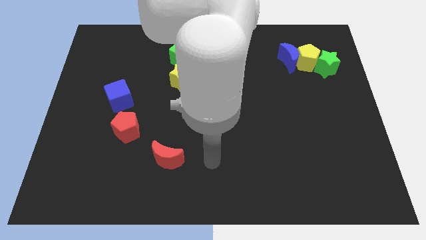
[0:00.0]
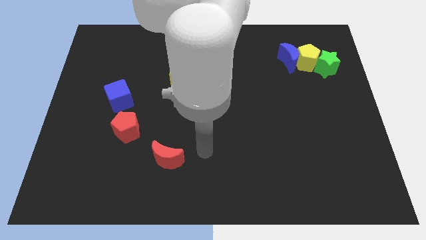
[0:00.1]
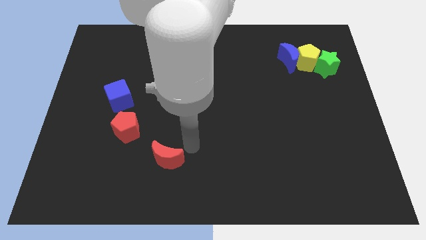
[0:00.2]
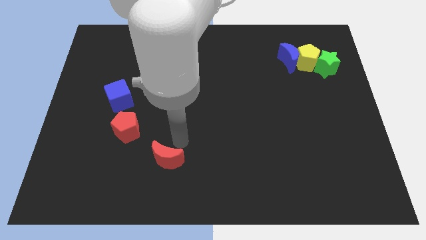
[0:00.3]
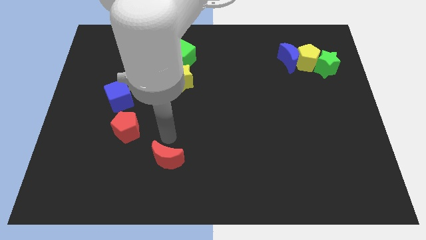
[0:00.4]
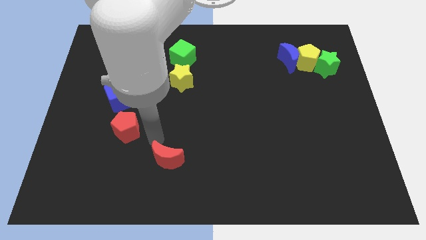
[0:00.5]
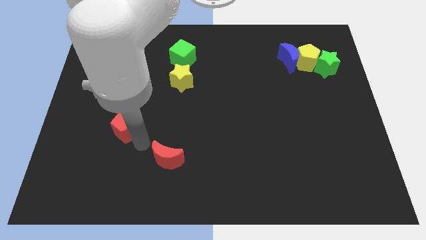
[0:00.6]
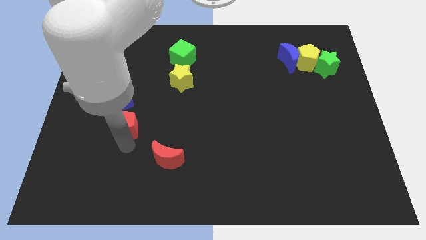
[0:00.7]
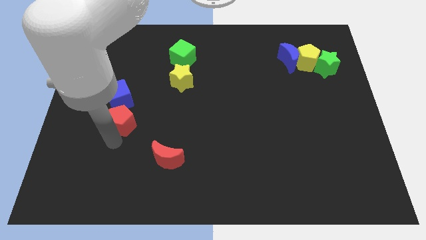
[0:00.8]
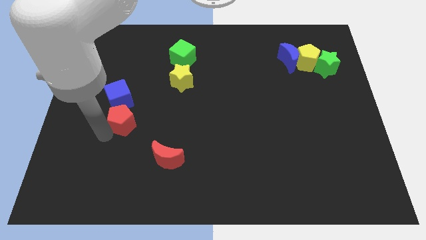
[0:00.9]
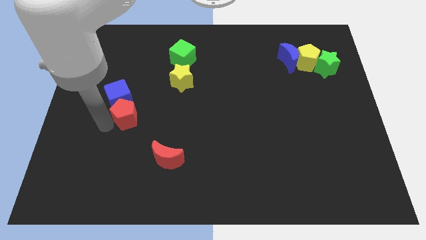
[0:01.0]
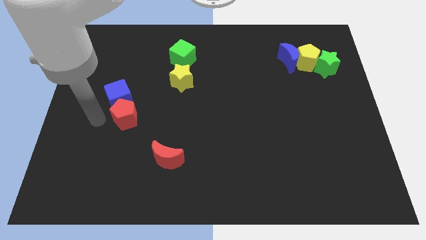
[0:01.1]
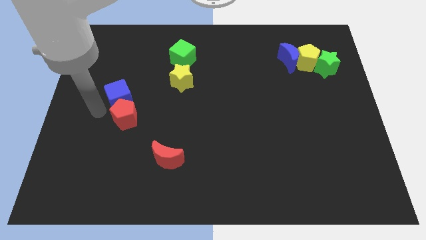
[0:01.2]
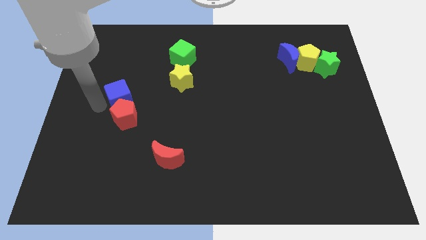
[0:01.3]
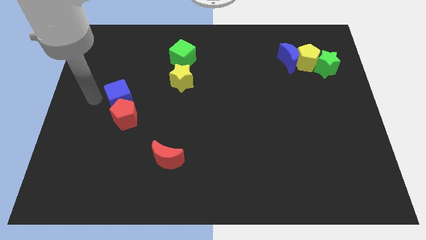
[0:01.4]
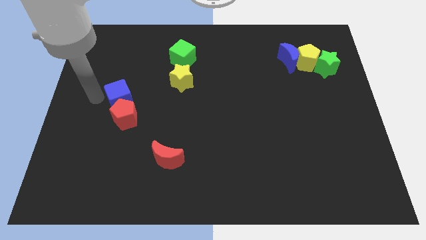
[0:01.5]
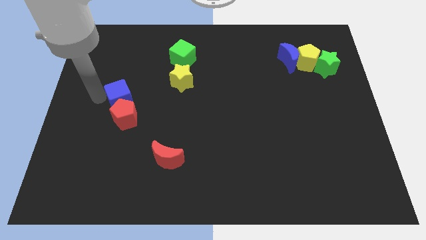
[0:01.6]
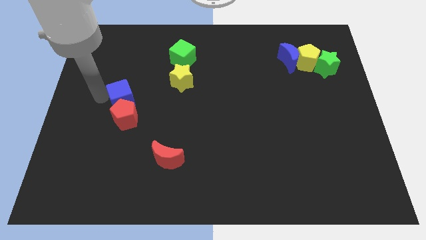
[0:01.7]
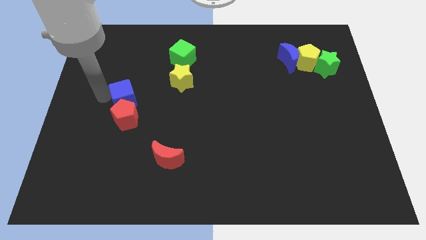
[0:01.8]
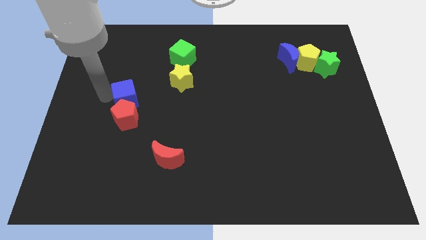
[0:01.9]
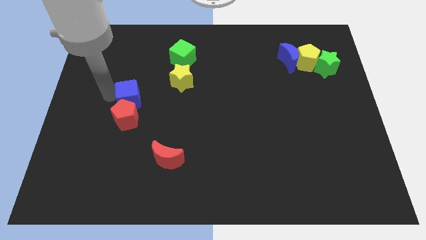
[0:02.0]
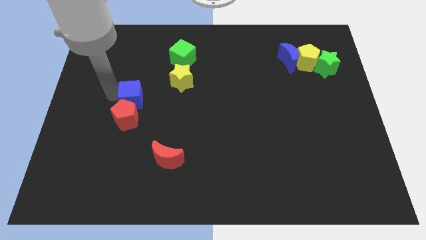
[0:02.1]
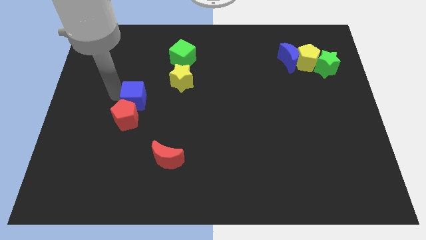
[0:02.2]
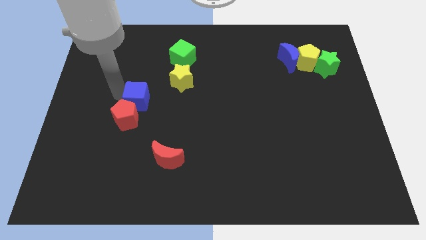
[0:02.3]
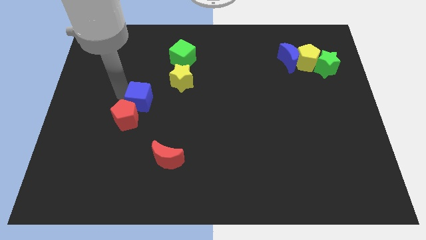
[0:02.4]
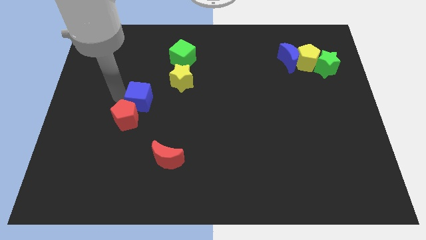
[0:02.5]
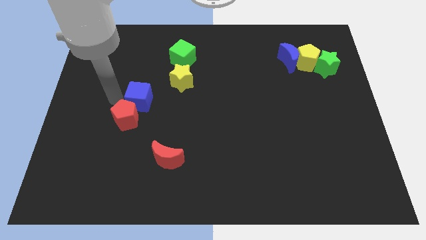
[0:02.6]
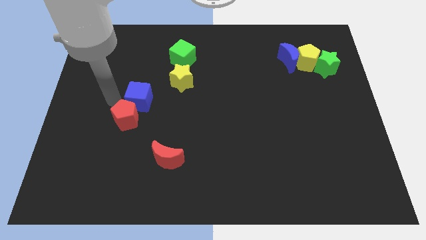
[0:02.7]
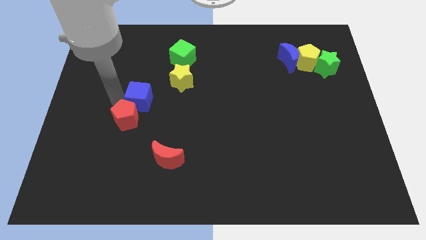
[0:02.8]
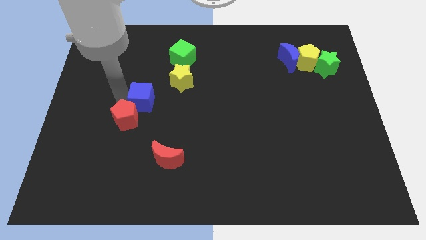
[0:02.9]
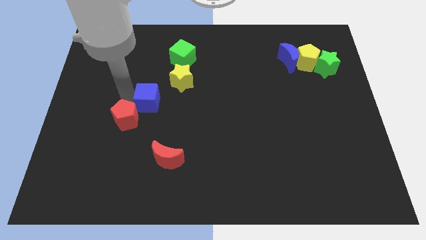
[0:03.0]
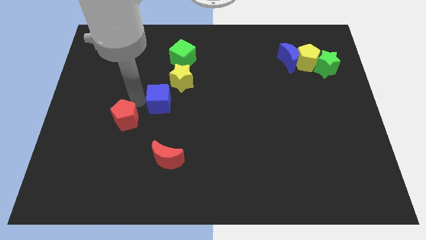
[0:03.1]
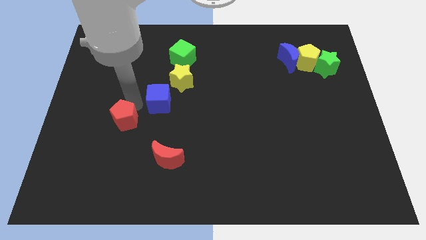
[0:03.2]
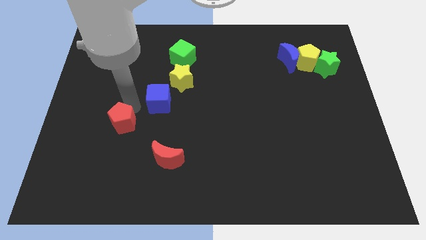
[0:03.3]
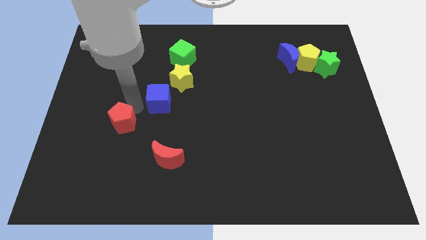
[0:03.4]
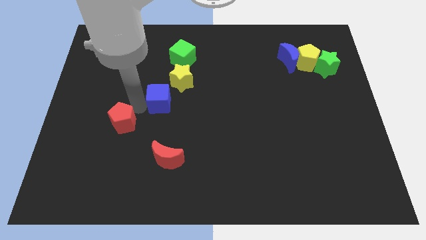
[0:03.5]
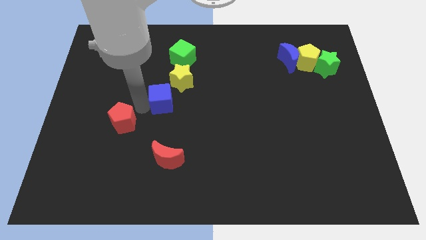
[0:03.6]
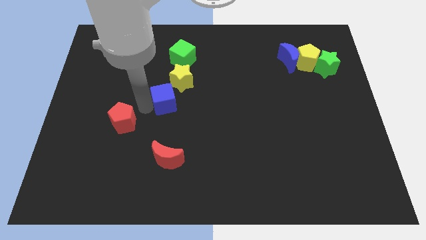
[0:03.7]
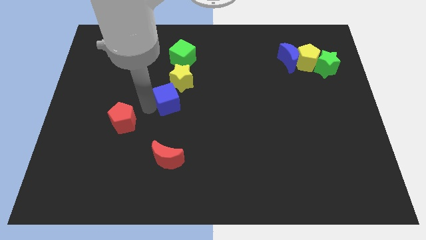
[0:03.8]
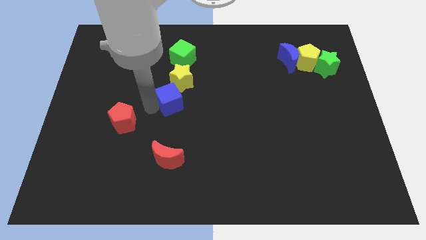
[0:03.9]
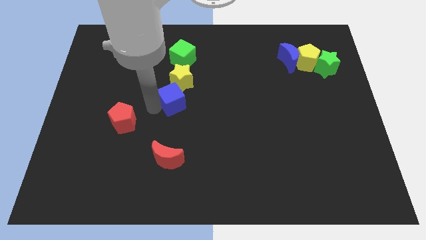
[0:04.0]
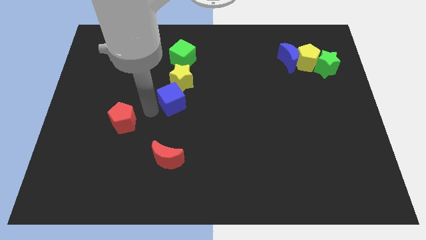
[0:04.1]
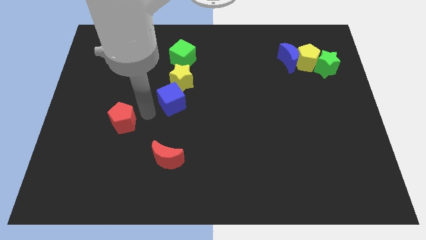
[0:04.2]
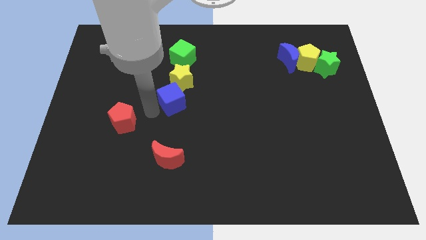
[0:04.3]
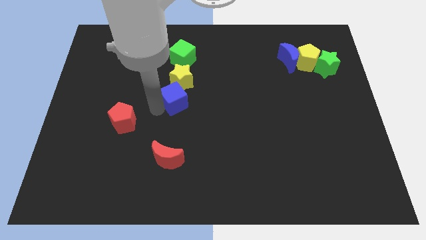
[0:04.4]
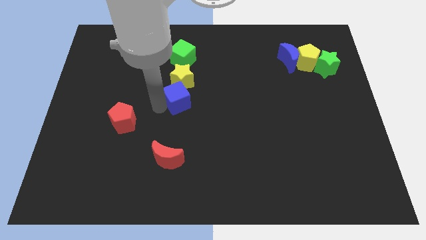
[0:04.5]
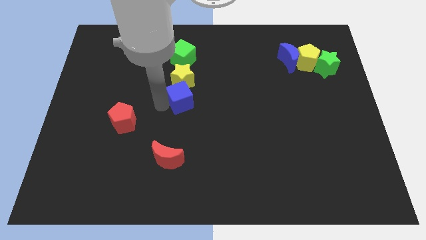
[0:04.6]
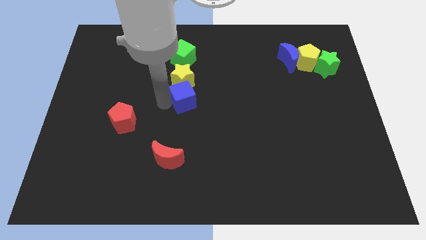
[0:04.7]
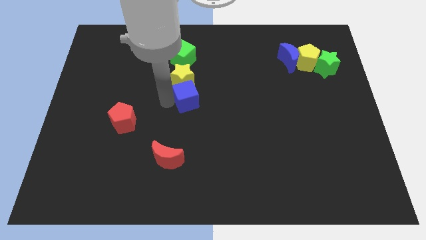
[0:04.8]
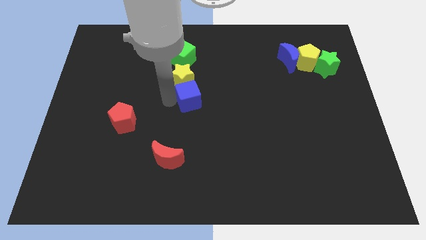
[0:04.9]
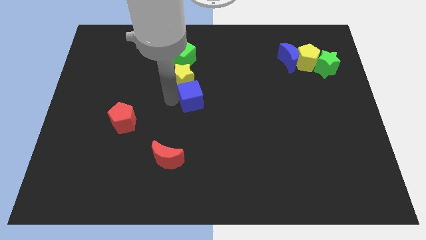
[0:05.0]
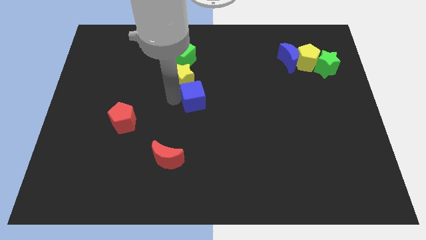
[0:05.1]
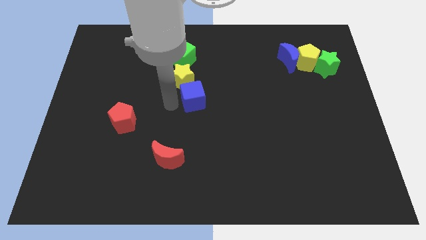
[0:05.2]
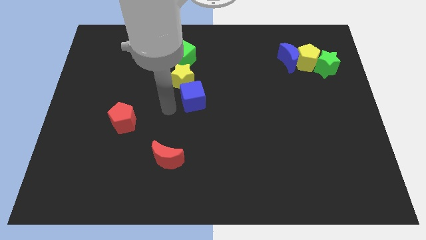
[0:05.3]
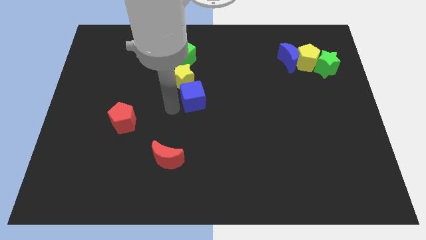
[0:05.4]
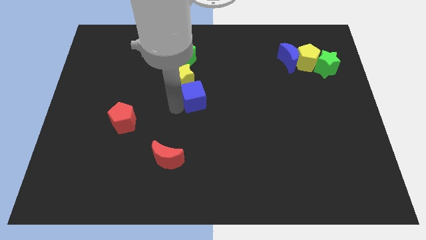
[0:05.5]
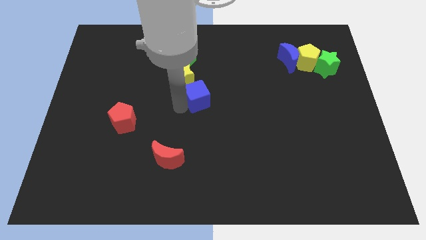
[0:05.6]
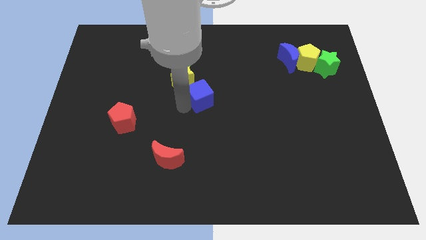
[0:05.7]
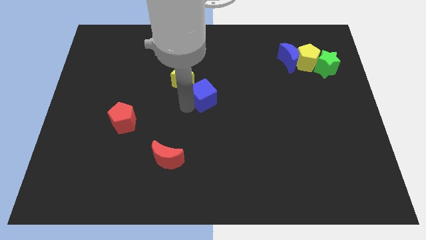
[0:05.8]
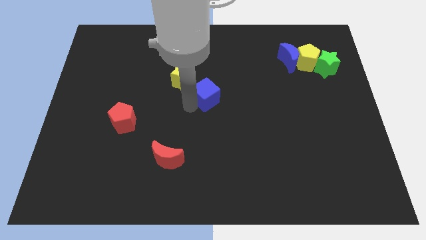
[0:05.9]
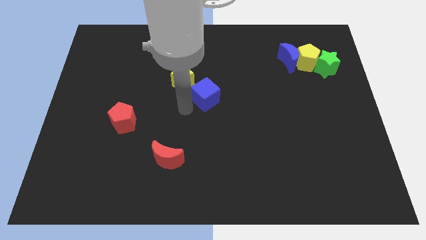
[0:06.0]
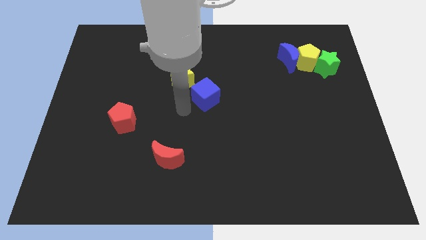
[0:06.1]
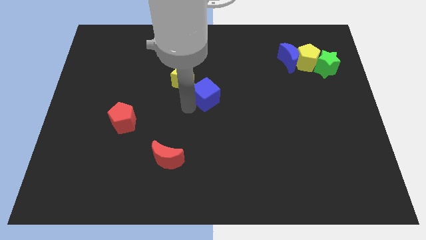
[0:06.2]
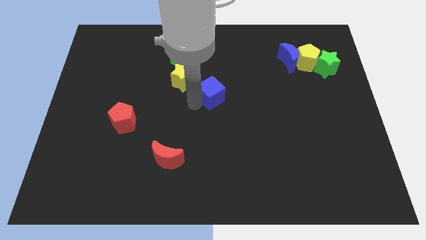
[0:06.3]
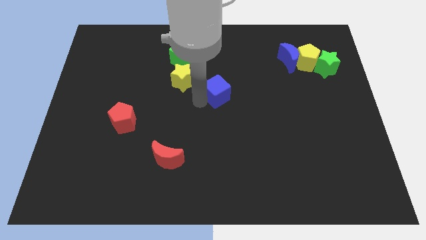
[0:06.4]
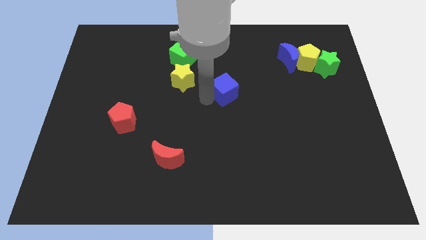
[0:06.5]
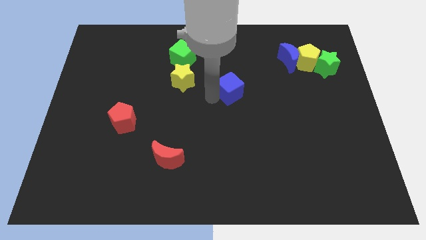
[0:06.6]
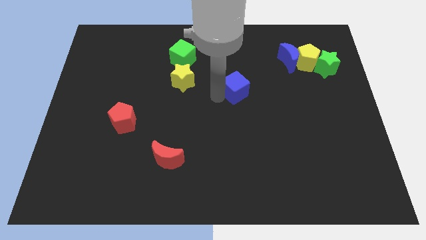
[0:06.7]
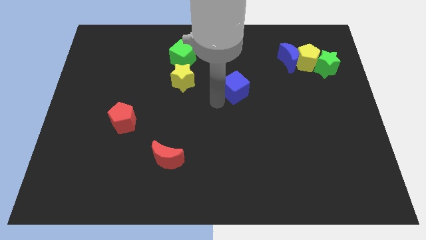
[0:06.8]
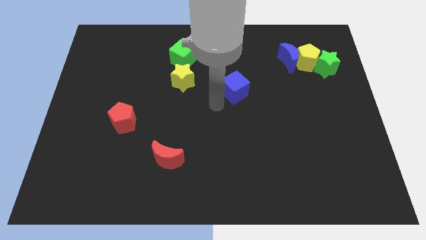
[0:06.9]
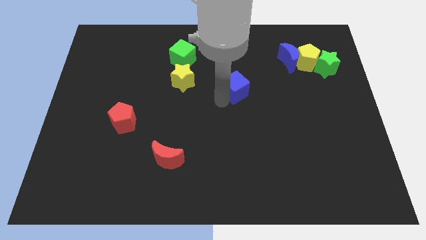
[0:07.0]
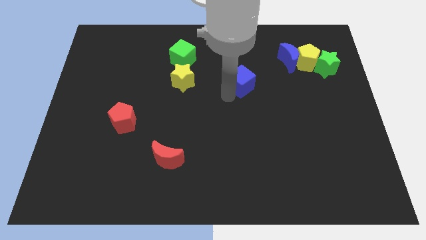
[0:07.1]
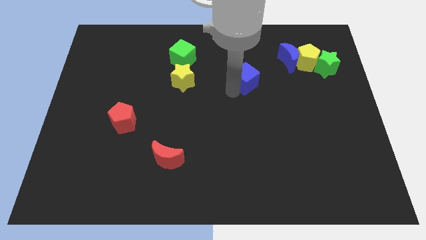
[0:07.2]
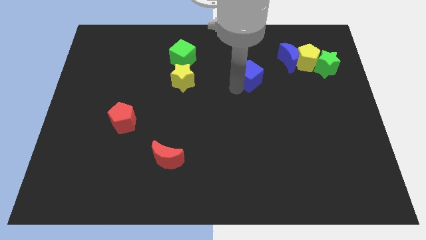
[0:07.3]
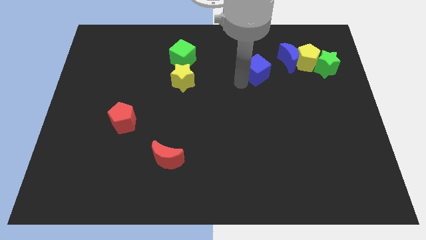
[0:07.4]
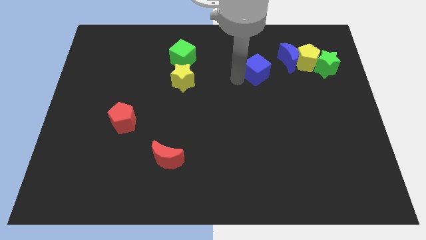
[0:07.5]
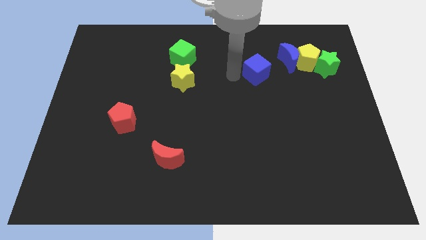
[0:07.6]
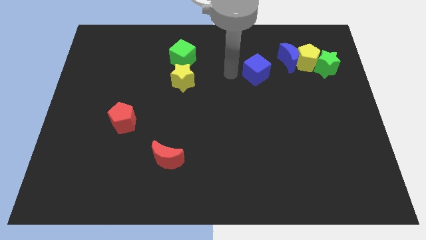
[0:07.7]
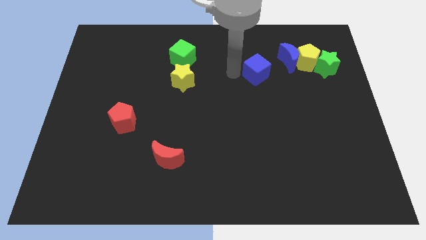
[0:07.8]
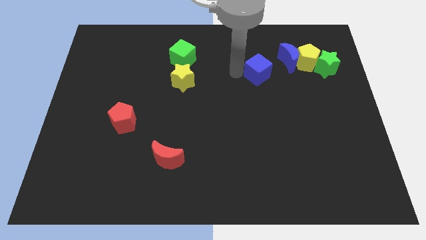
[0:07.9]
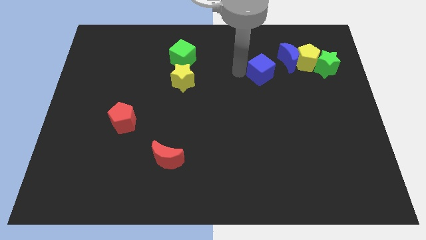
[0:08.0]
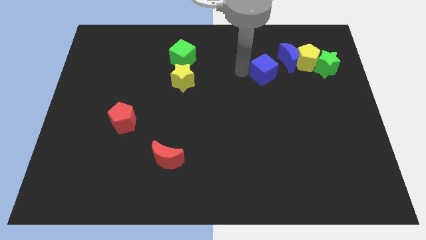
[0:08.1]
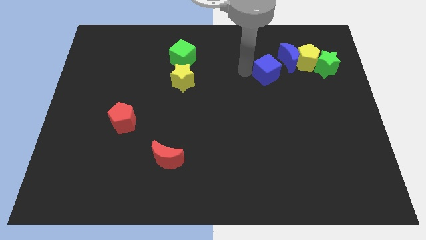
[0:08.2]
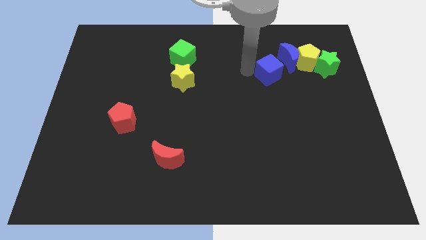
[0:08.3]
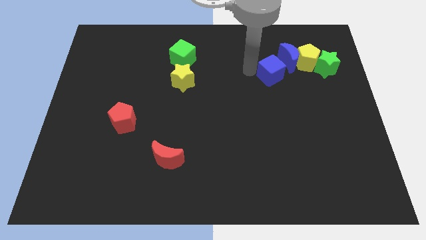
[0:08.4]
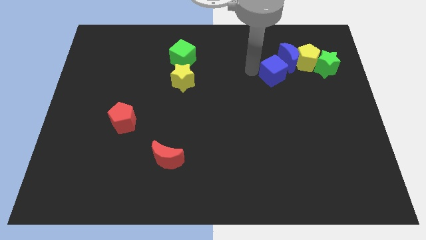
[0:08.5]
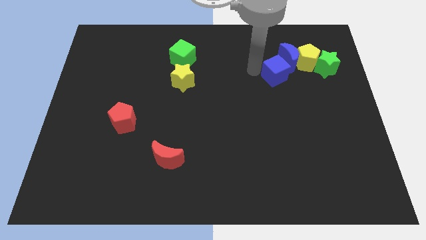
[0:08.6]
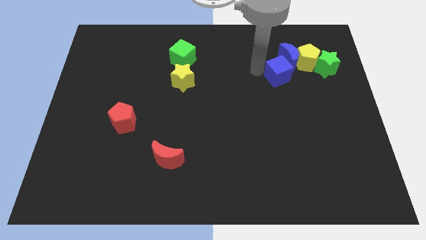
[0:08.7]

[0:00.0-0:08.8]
push the blue cube close to the blue moon
